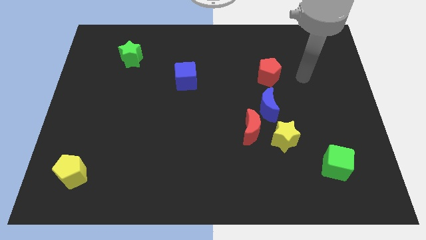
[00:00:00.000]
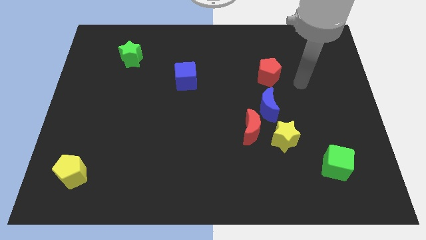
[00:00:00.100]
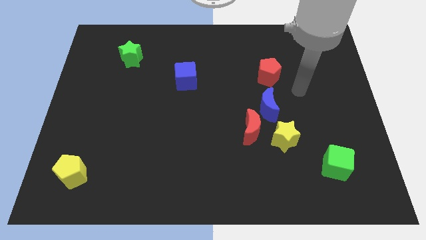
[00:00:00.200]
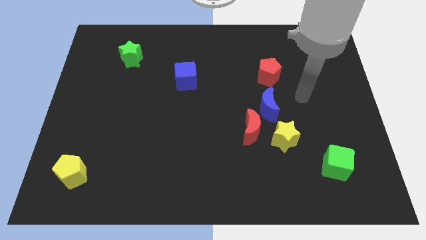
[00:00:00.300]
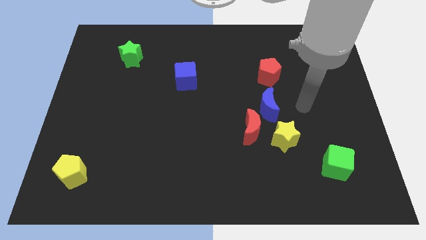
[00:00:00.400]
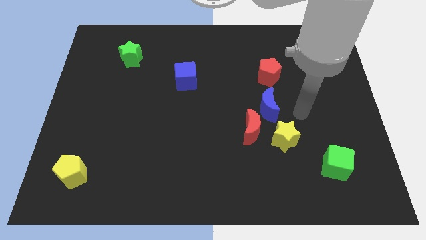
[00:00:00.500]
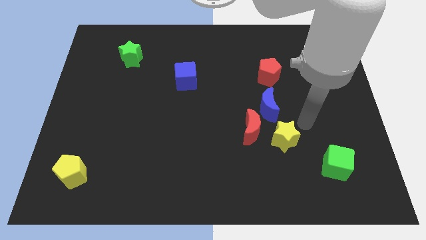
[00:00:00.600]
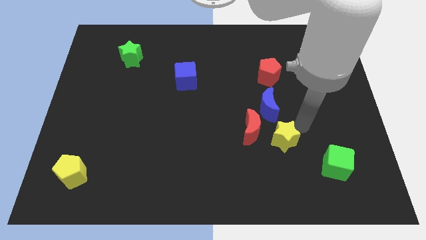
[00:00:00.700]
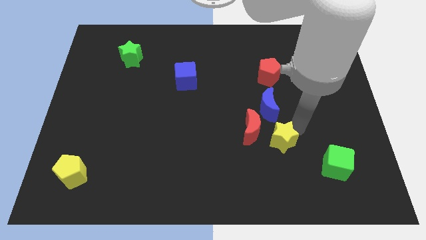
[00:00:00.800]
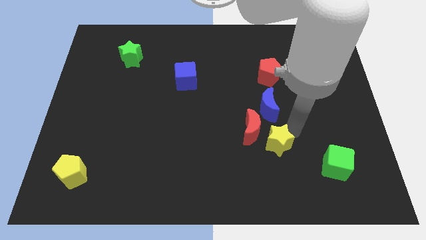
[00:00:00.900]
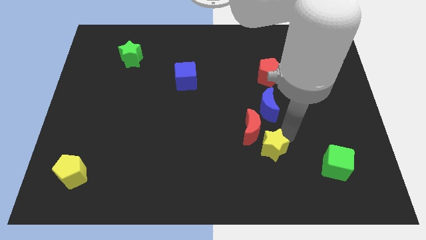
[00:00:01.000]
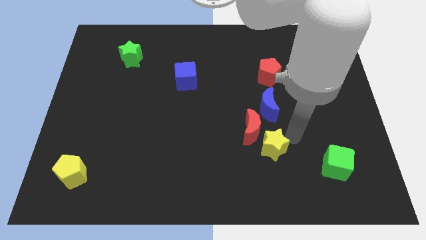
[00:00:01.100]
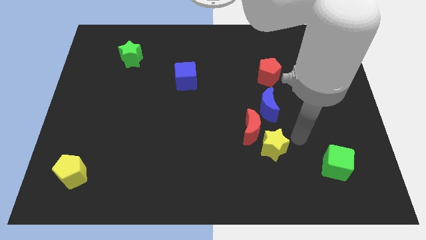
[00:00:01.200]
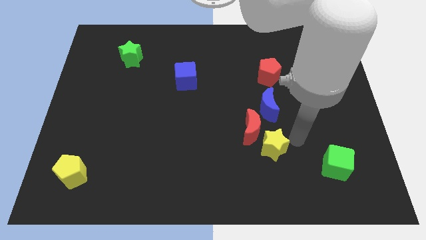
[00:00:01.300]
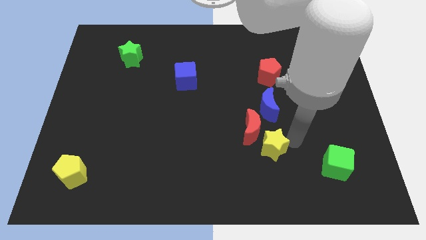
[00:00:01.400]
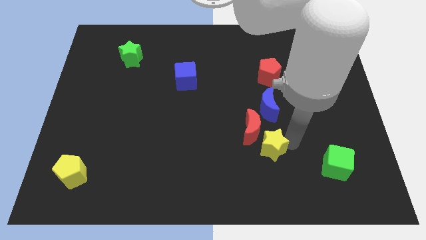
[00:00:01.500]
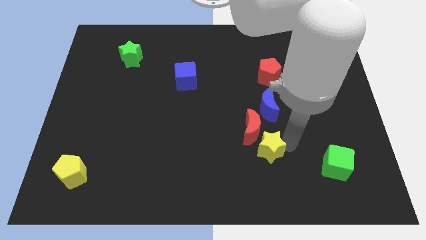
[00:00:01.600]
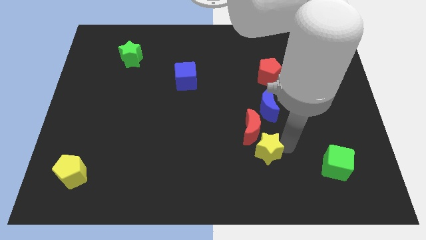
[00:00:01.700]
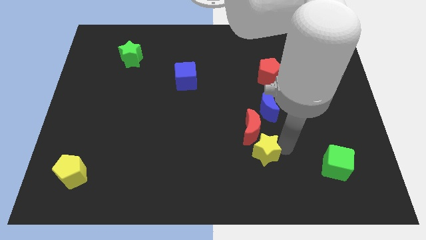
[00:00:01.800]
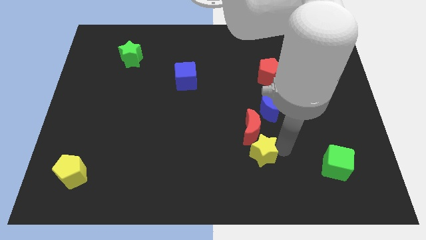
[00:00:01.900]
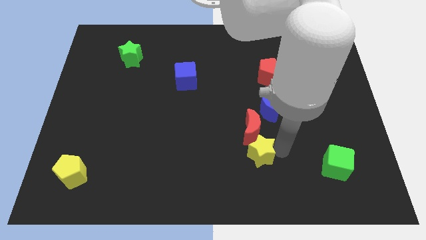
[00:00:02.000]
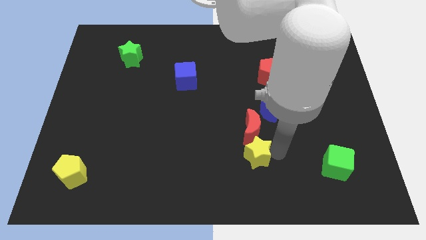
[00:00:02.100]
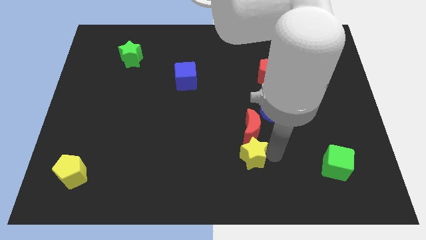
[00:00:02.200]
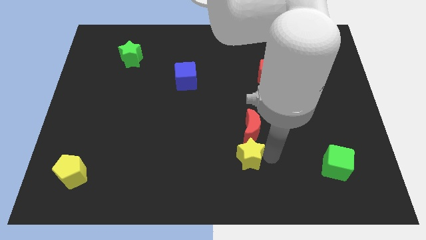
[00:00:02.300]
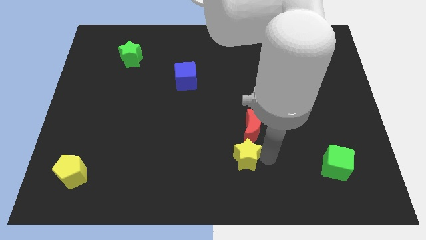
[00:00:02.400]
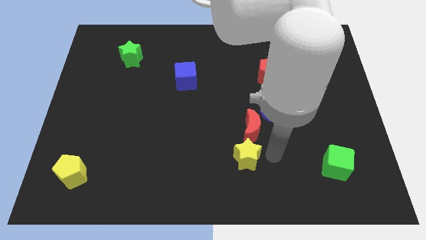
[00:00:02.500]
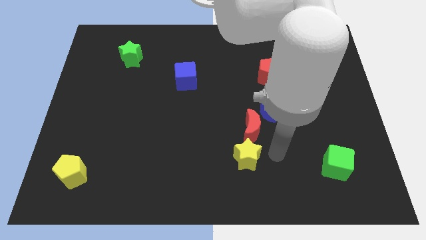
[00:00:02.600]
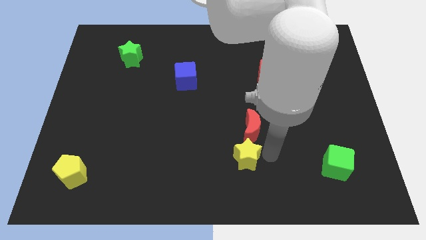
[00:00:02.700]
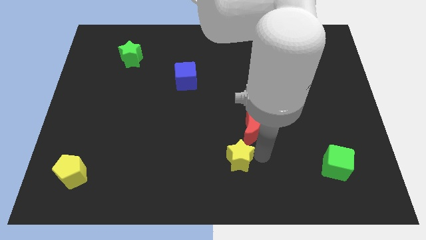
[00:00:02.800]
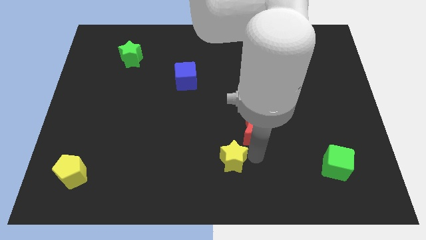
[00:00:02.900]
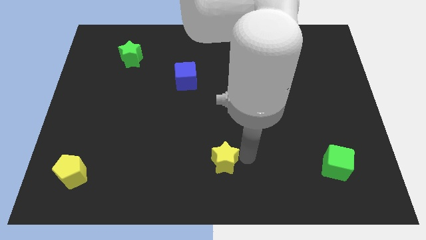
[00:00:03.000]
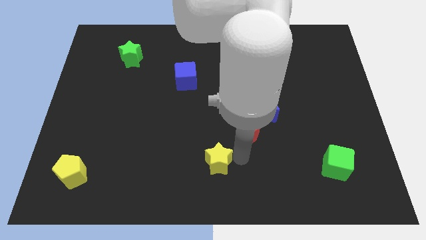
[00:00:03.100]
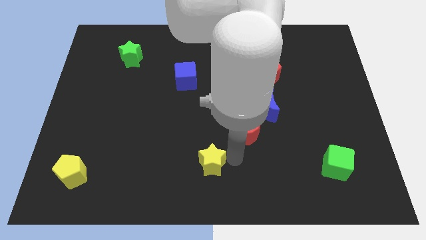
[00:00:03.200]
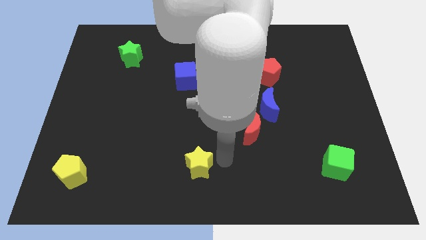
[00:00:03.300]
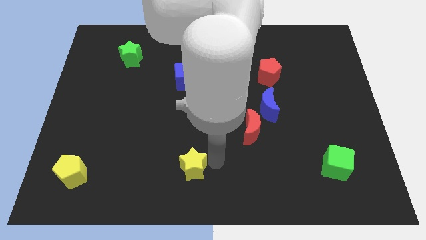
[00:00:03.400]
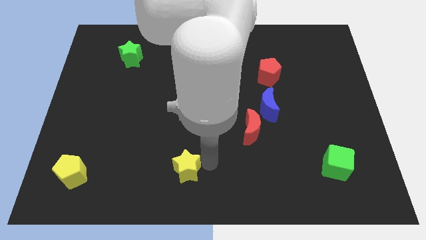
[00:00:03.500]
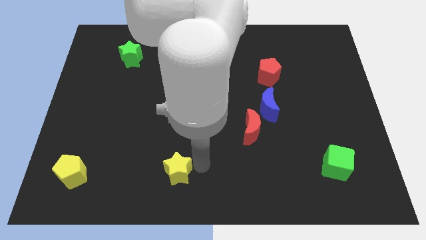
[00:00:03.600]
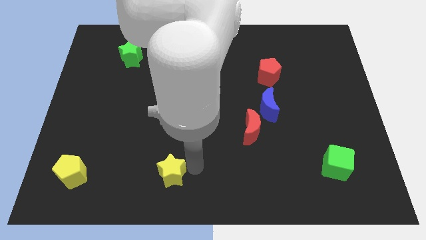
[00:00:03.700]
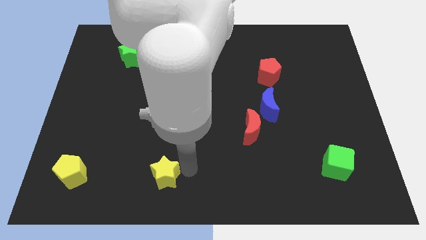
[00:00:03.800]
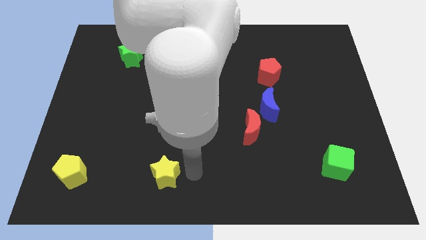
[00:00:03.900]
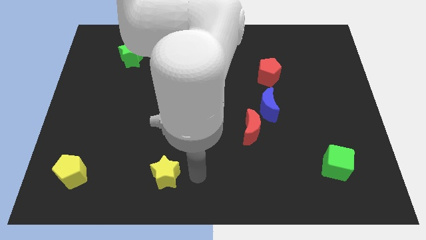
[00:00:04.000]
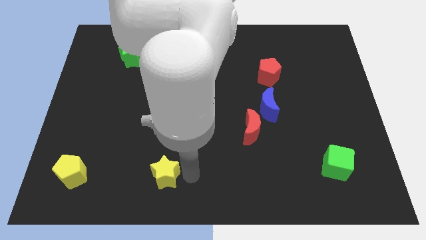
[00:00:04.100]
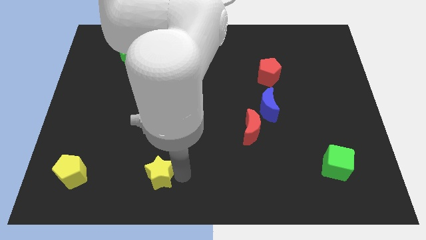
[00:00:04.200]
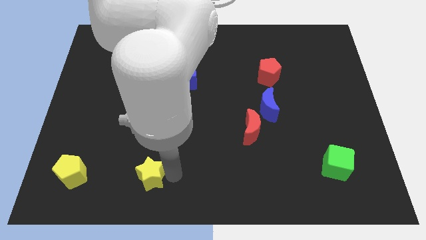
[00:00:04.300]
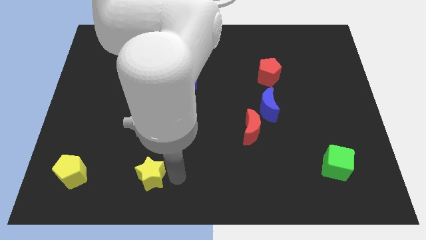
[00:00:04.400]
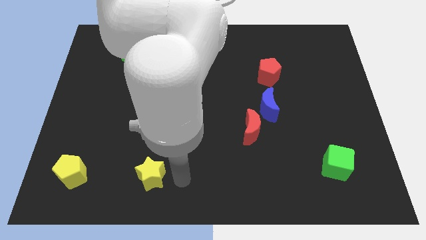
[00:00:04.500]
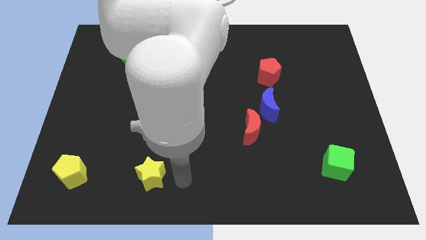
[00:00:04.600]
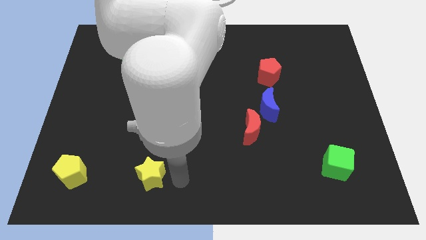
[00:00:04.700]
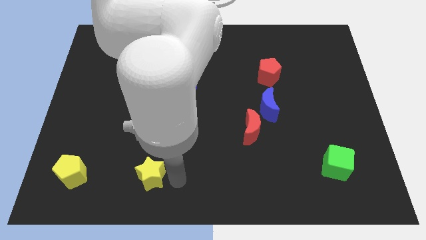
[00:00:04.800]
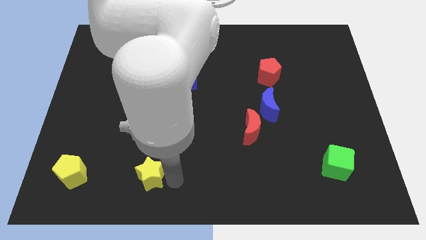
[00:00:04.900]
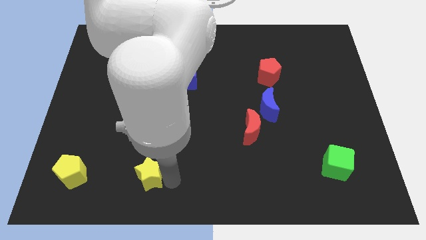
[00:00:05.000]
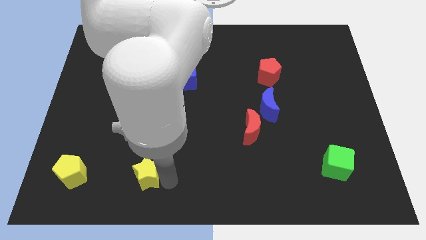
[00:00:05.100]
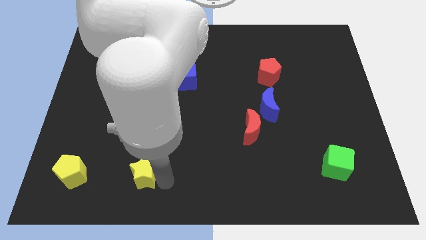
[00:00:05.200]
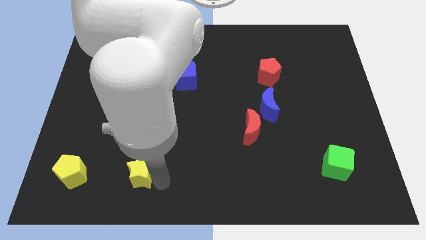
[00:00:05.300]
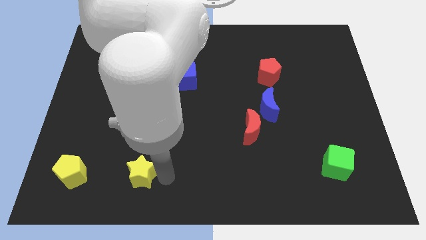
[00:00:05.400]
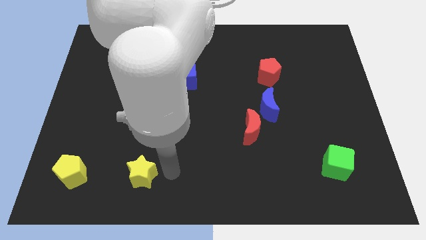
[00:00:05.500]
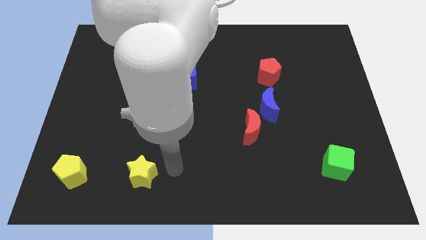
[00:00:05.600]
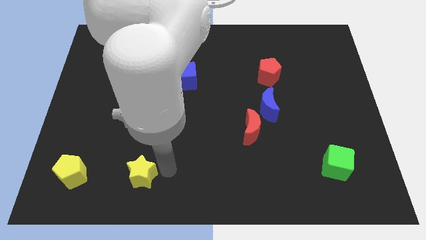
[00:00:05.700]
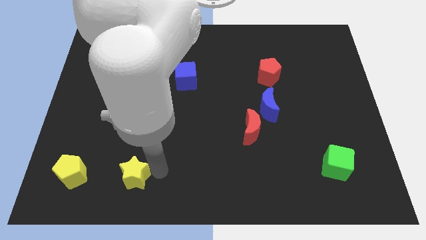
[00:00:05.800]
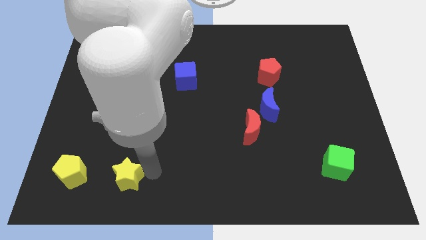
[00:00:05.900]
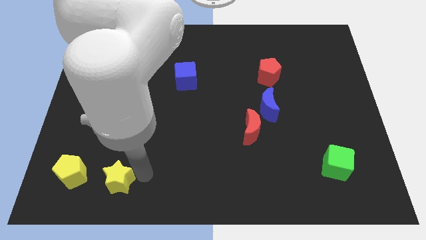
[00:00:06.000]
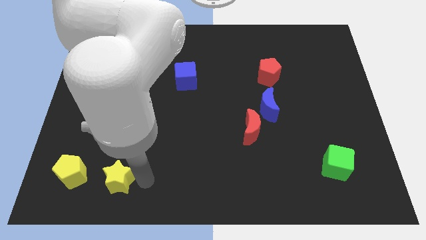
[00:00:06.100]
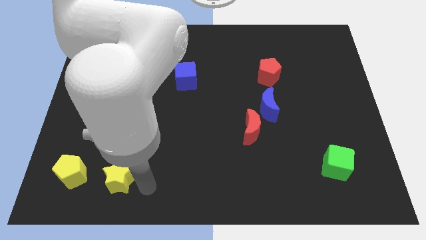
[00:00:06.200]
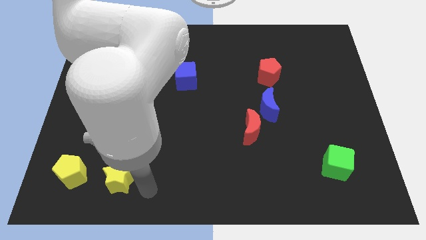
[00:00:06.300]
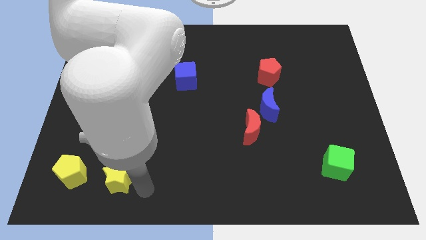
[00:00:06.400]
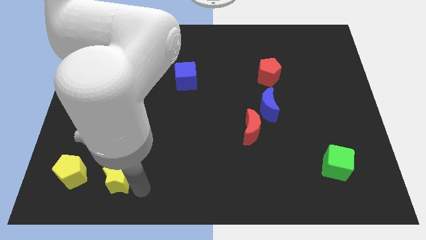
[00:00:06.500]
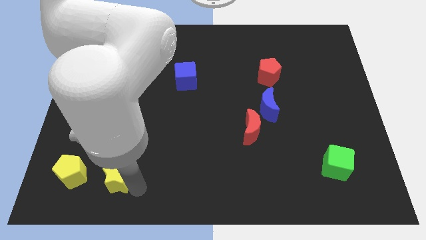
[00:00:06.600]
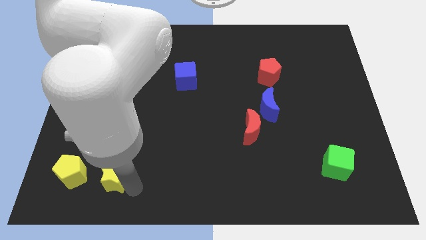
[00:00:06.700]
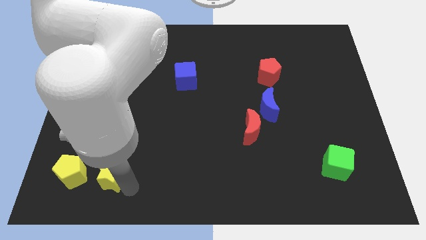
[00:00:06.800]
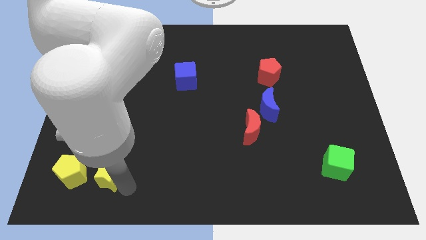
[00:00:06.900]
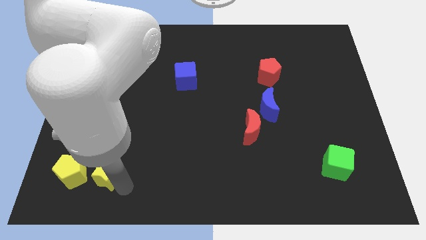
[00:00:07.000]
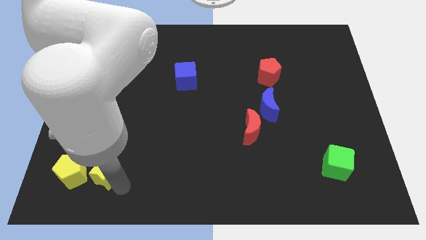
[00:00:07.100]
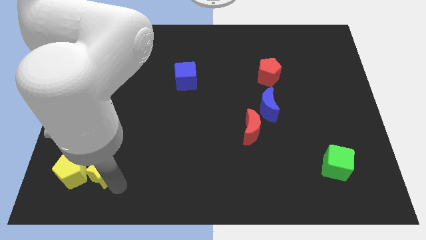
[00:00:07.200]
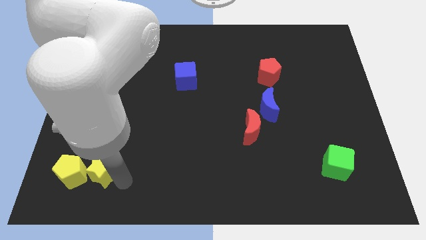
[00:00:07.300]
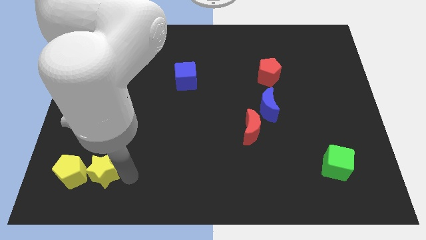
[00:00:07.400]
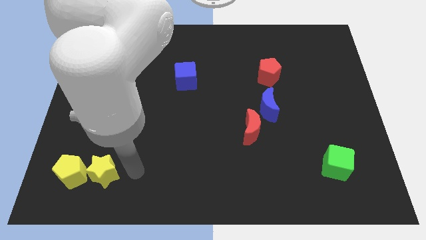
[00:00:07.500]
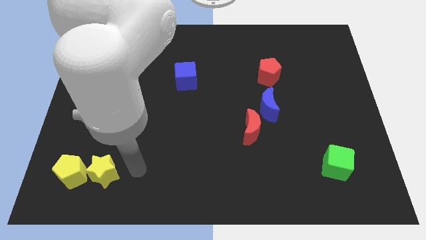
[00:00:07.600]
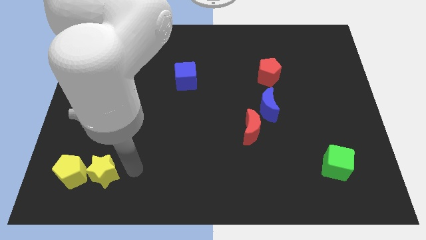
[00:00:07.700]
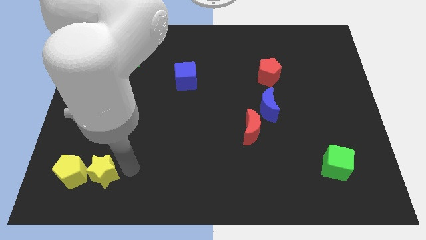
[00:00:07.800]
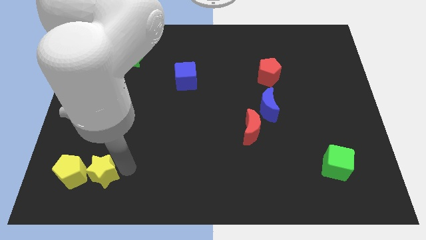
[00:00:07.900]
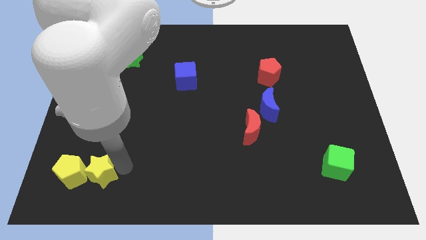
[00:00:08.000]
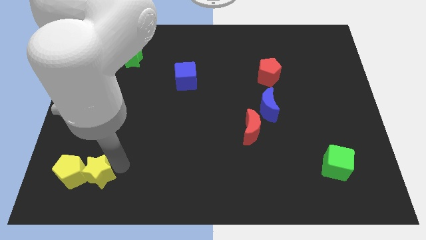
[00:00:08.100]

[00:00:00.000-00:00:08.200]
slide the yellow star next to the yellow pentagon
